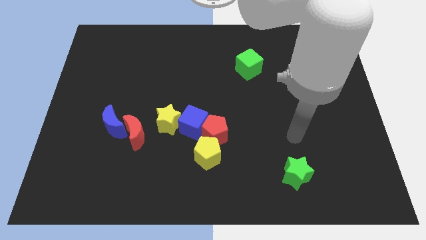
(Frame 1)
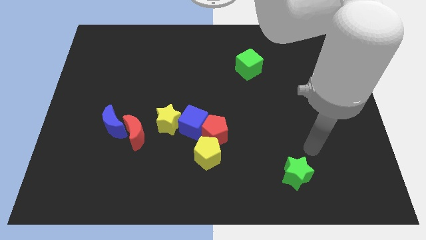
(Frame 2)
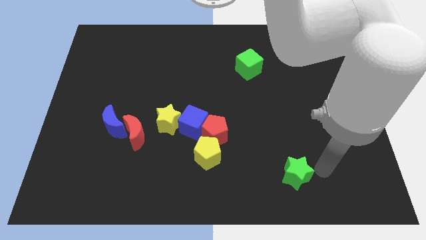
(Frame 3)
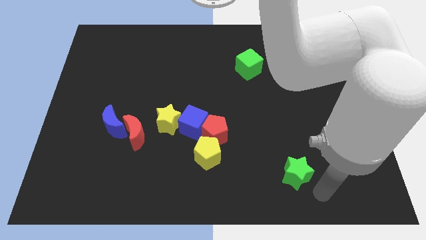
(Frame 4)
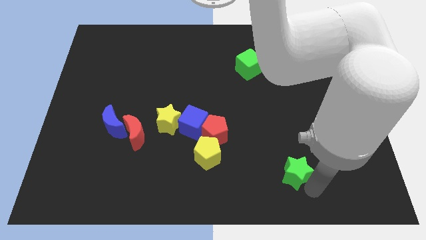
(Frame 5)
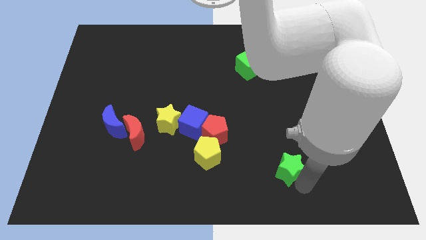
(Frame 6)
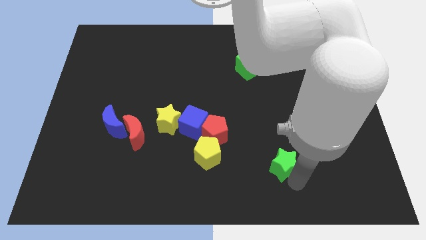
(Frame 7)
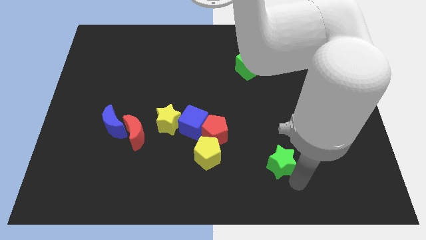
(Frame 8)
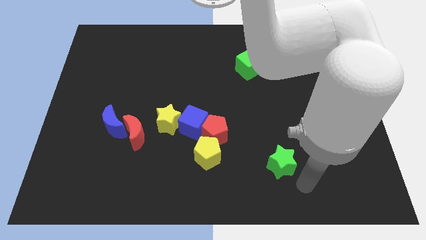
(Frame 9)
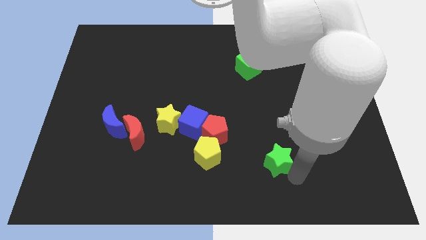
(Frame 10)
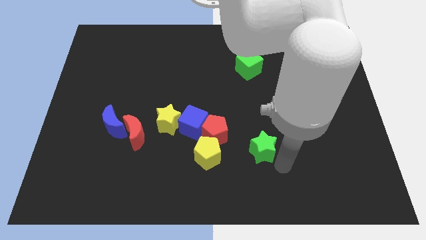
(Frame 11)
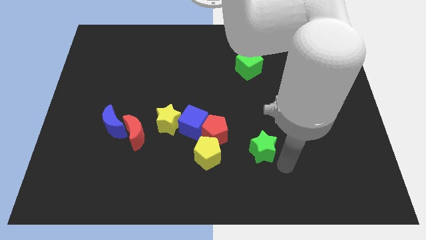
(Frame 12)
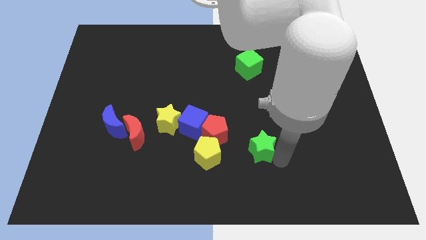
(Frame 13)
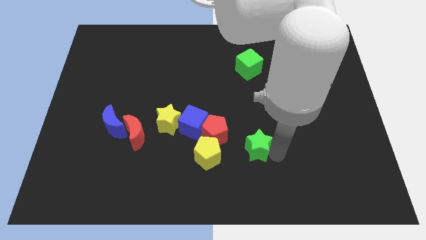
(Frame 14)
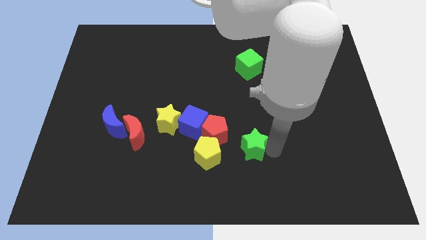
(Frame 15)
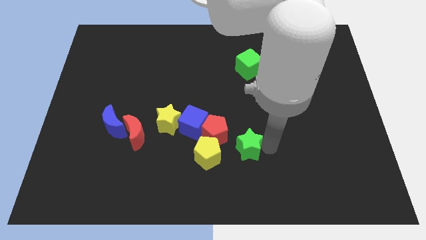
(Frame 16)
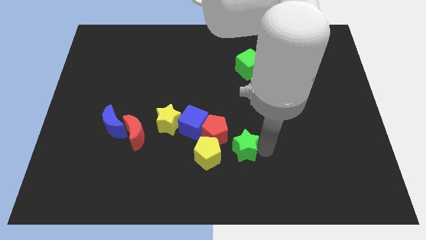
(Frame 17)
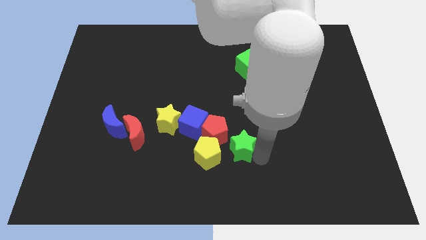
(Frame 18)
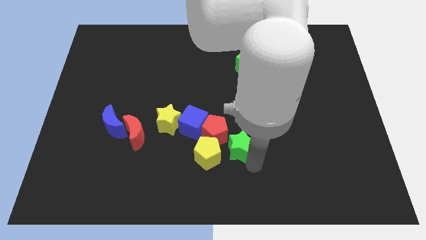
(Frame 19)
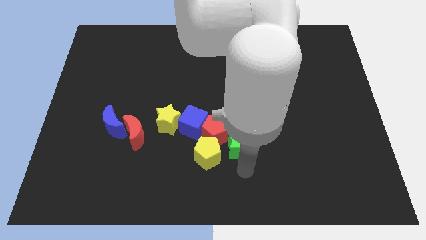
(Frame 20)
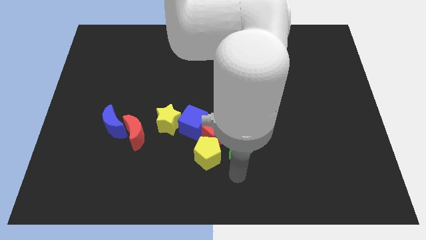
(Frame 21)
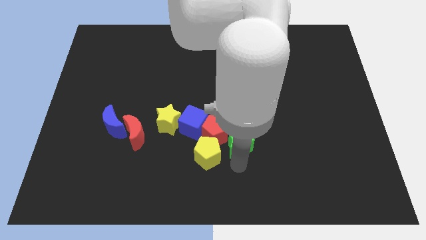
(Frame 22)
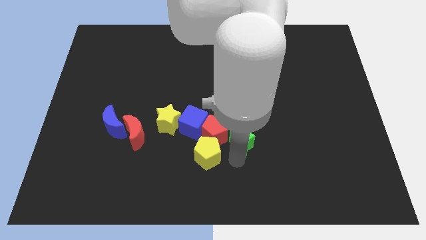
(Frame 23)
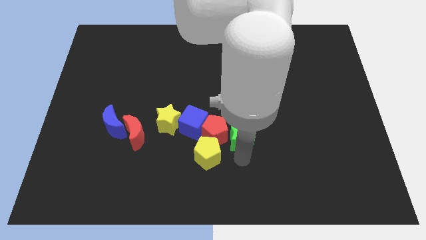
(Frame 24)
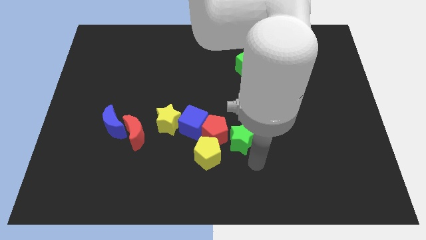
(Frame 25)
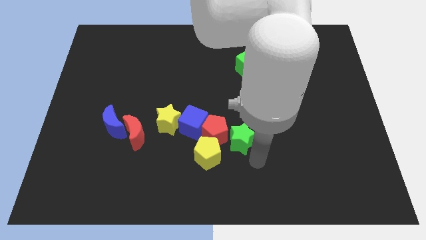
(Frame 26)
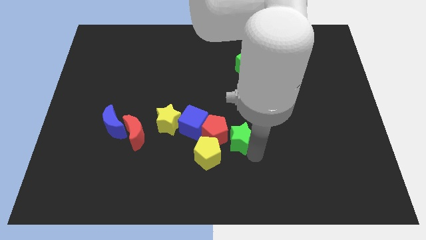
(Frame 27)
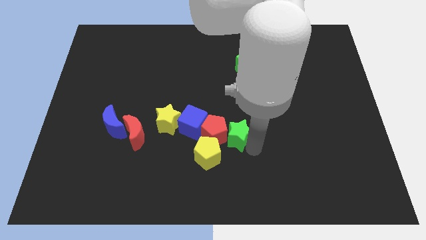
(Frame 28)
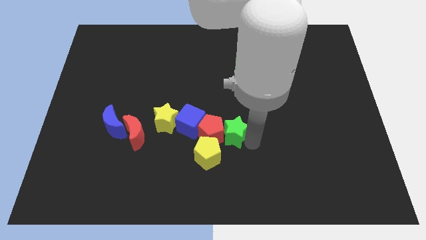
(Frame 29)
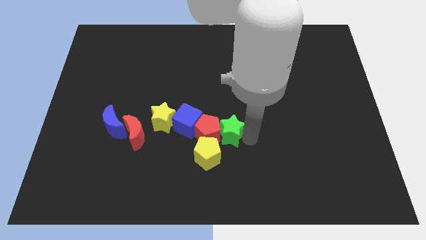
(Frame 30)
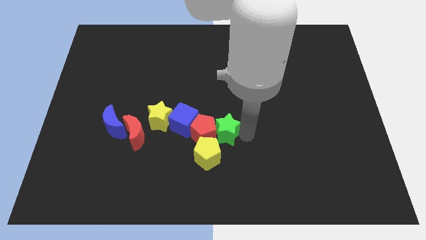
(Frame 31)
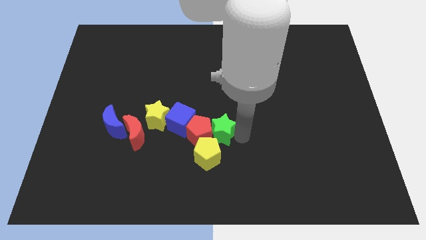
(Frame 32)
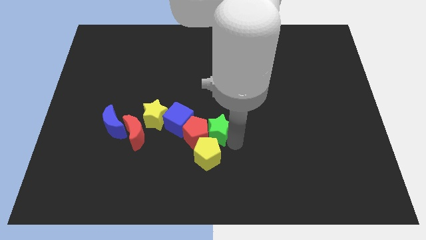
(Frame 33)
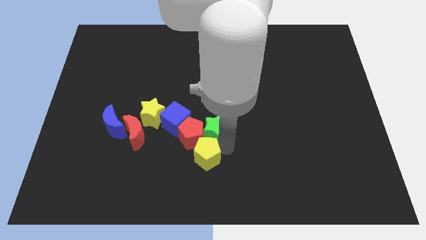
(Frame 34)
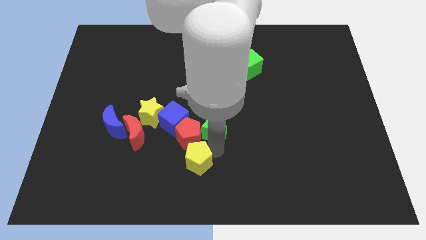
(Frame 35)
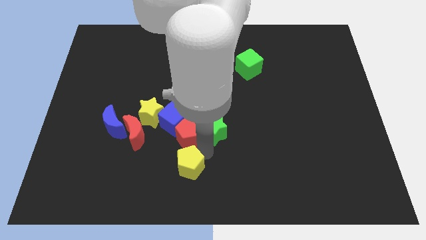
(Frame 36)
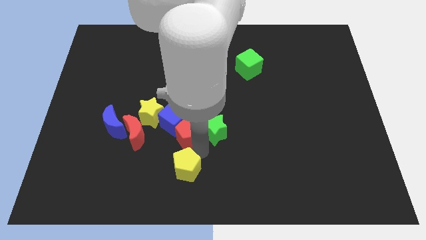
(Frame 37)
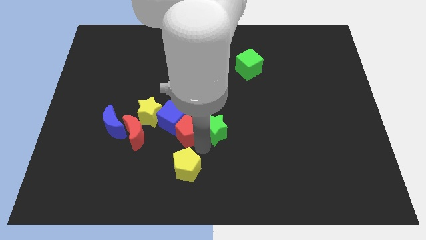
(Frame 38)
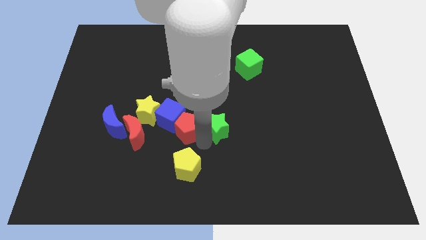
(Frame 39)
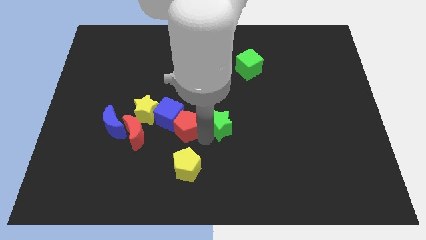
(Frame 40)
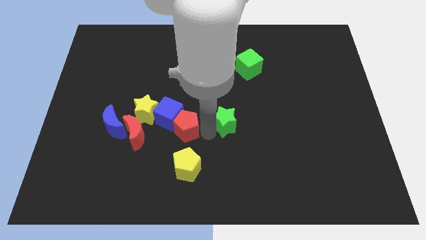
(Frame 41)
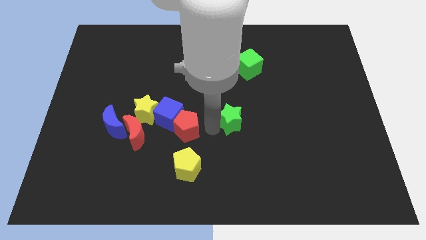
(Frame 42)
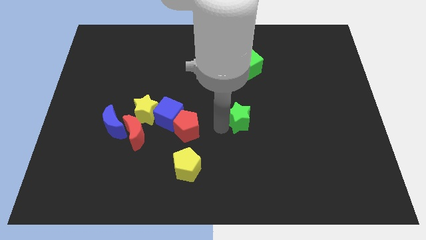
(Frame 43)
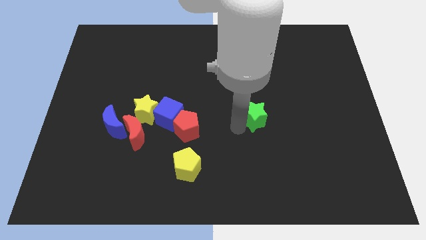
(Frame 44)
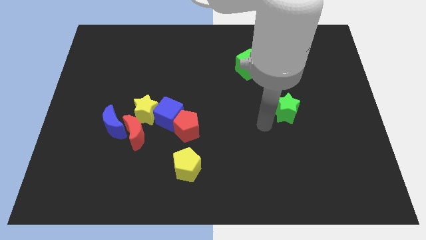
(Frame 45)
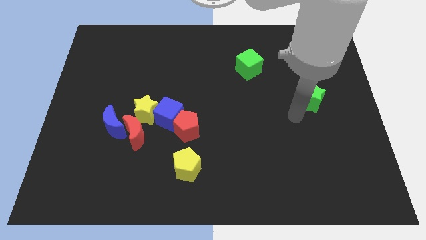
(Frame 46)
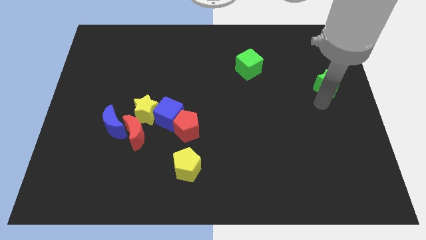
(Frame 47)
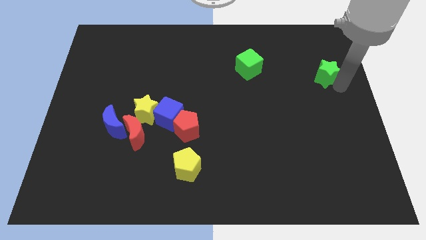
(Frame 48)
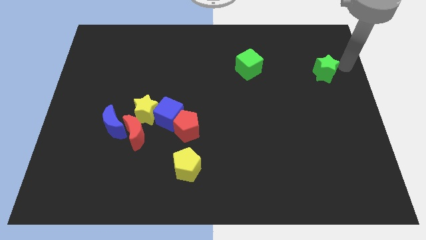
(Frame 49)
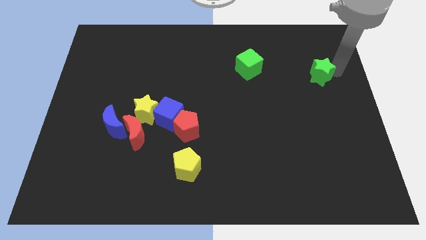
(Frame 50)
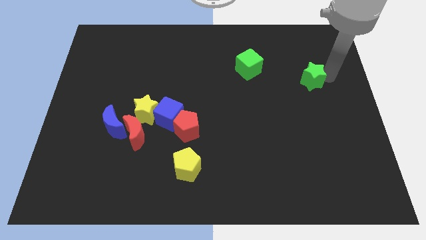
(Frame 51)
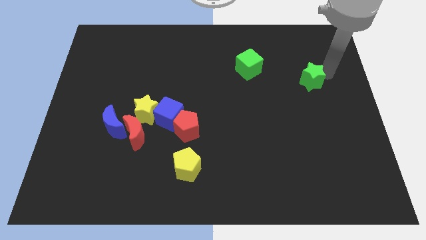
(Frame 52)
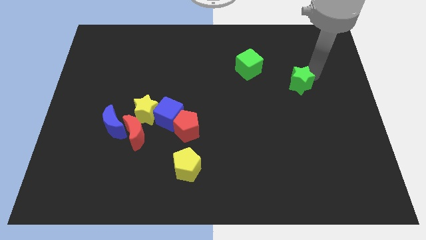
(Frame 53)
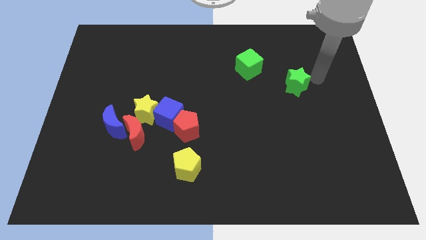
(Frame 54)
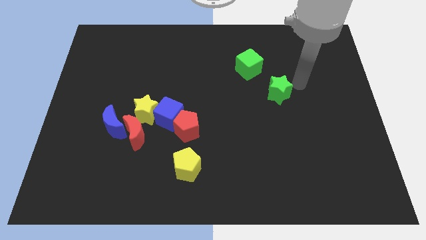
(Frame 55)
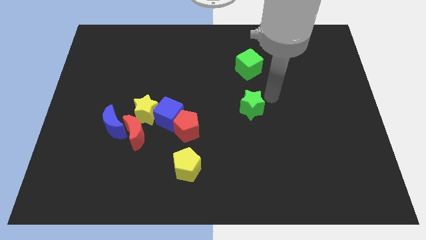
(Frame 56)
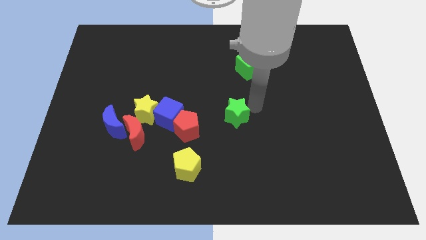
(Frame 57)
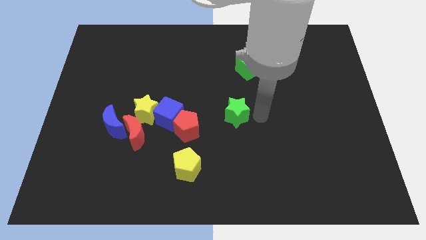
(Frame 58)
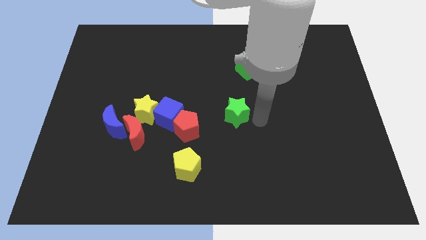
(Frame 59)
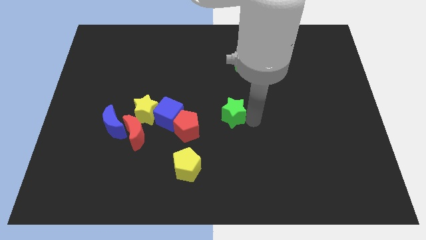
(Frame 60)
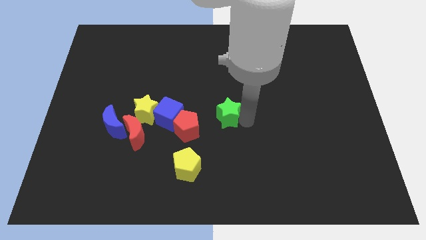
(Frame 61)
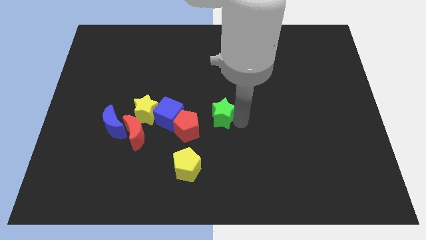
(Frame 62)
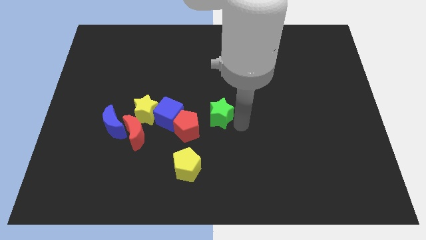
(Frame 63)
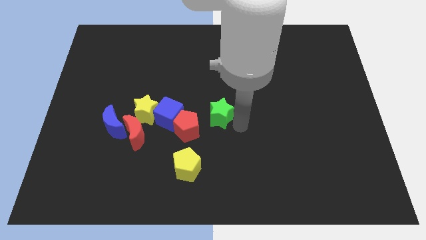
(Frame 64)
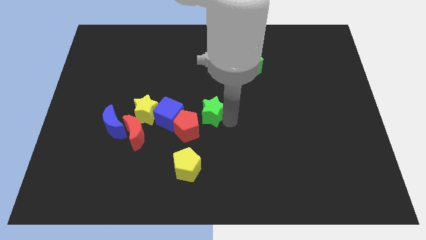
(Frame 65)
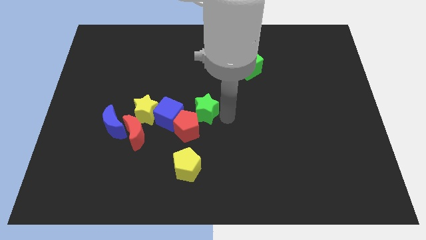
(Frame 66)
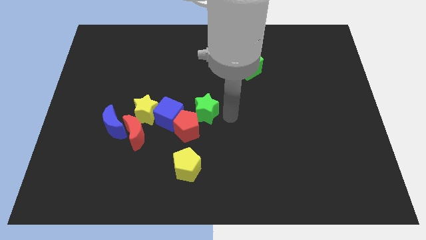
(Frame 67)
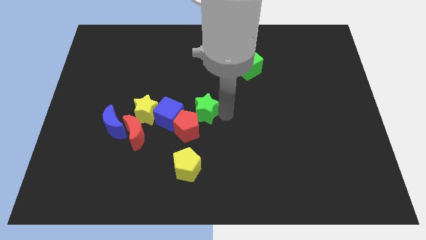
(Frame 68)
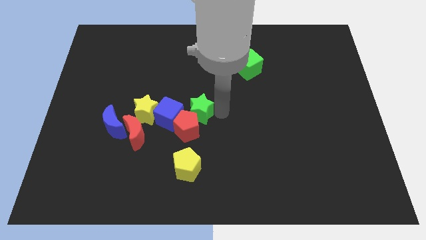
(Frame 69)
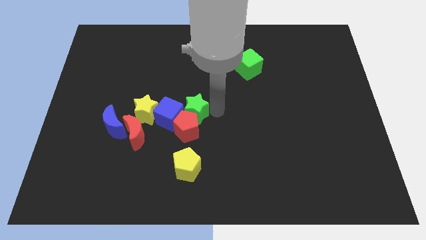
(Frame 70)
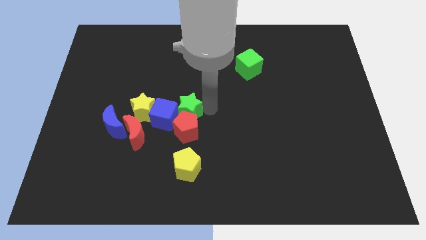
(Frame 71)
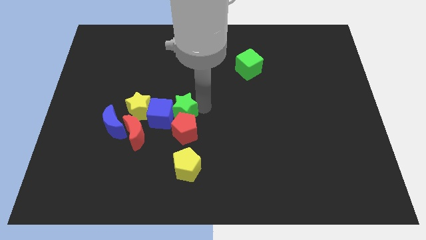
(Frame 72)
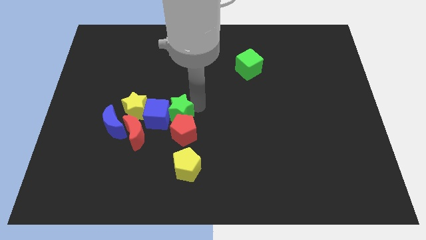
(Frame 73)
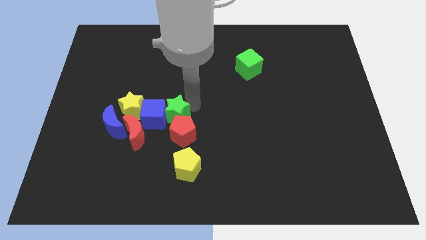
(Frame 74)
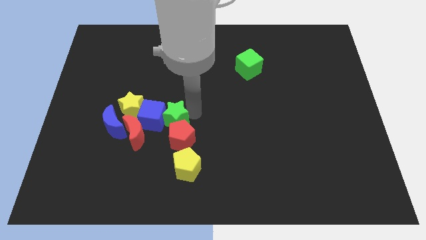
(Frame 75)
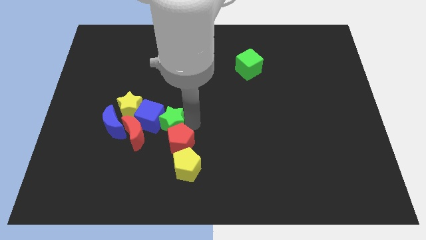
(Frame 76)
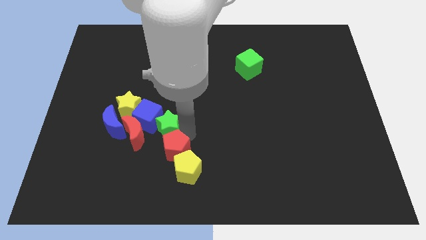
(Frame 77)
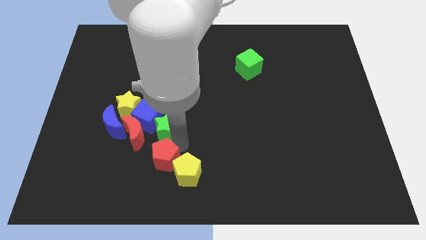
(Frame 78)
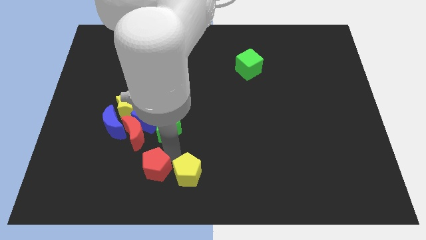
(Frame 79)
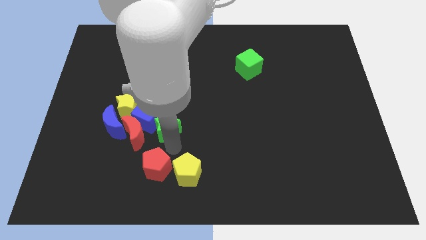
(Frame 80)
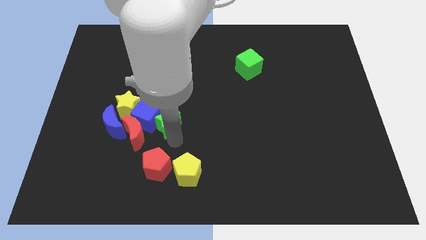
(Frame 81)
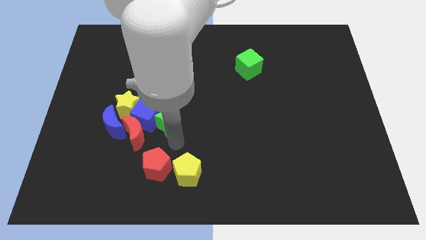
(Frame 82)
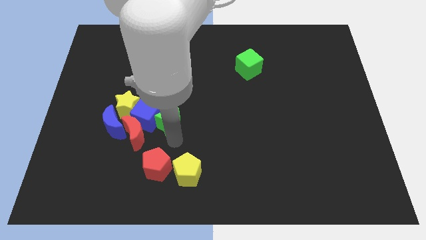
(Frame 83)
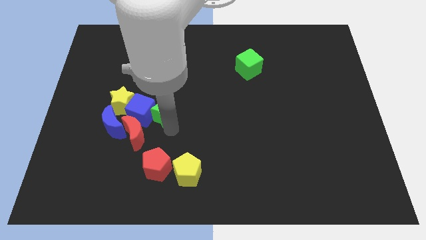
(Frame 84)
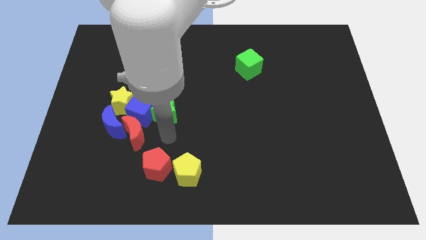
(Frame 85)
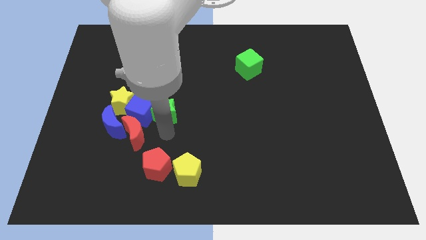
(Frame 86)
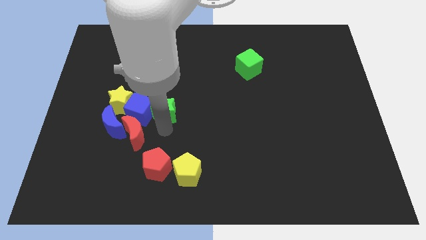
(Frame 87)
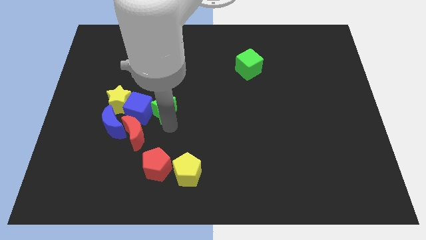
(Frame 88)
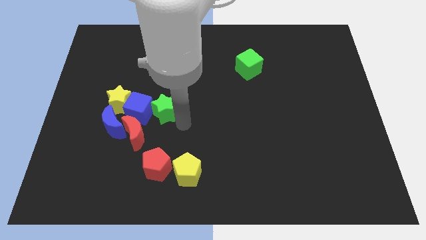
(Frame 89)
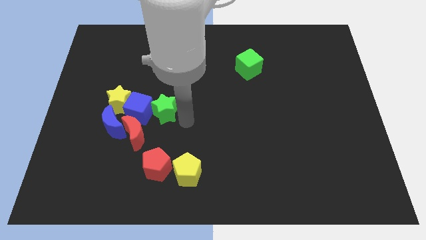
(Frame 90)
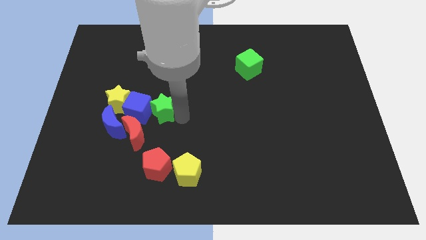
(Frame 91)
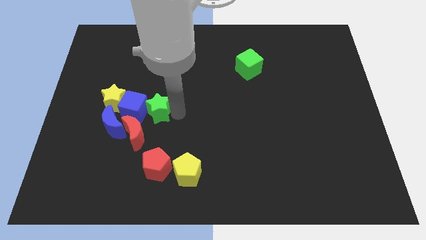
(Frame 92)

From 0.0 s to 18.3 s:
put the green star to the top side of the red moon
